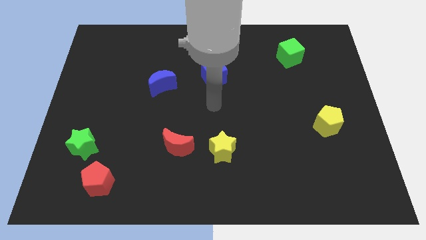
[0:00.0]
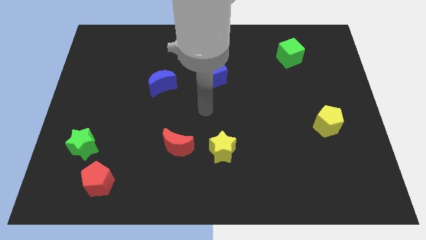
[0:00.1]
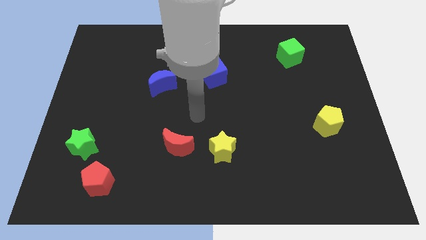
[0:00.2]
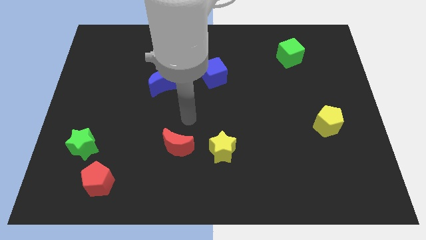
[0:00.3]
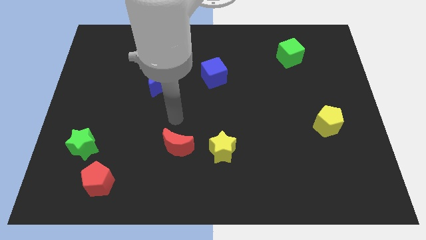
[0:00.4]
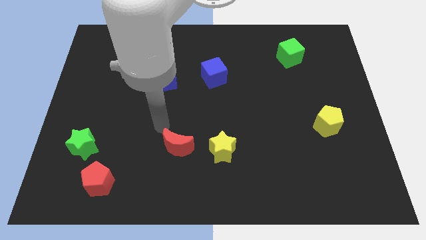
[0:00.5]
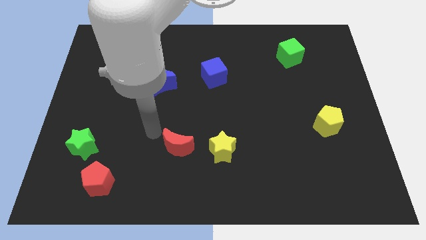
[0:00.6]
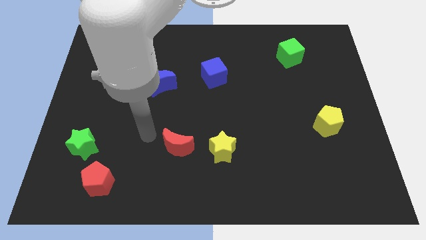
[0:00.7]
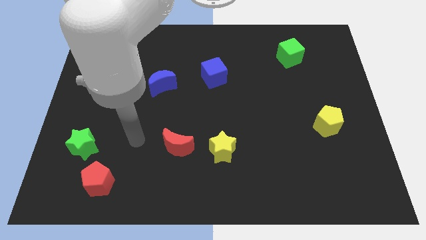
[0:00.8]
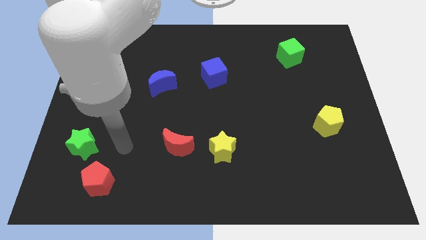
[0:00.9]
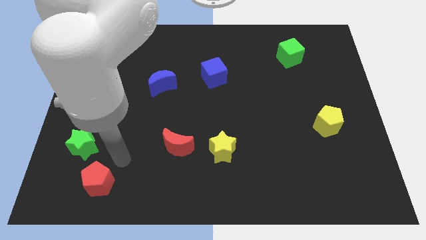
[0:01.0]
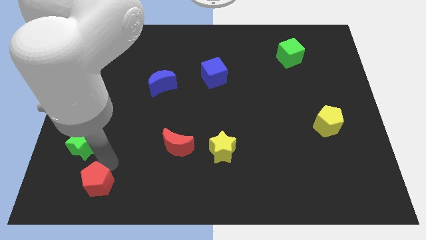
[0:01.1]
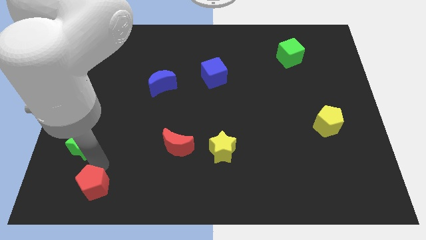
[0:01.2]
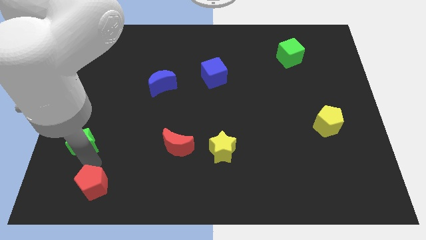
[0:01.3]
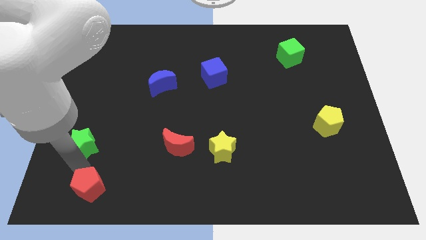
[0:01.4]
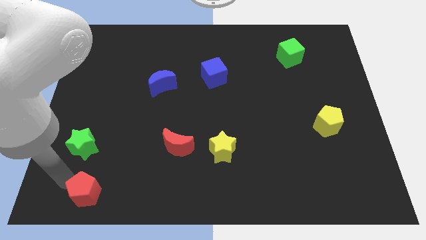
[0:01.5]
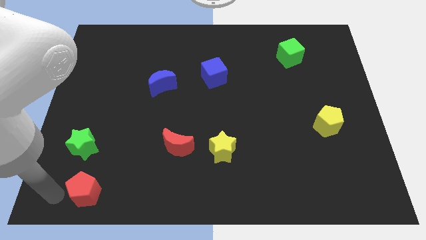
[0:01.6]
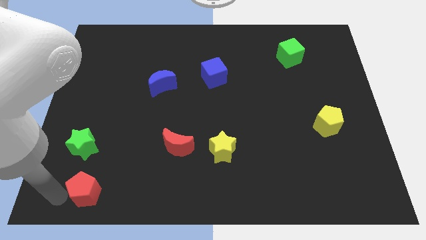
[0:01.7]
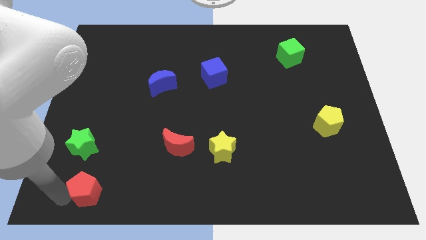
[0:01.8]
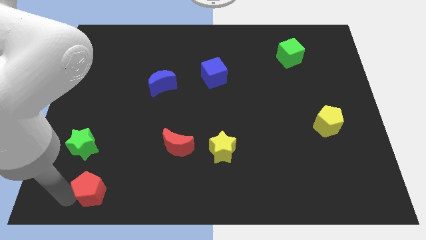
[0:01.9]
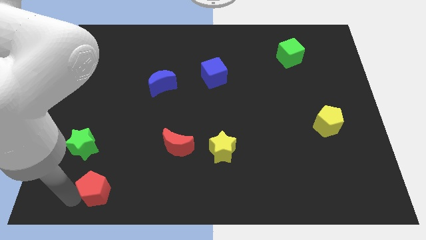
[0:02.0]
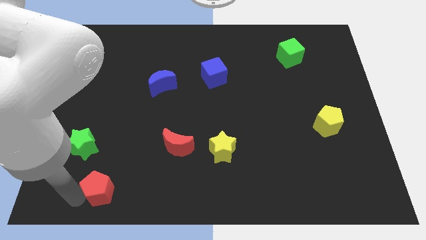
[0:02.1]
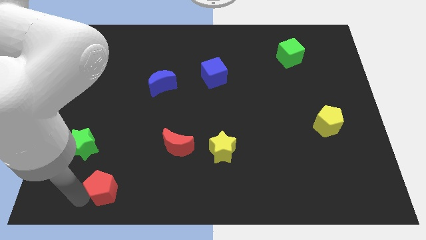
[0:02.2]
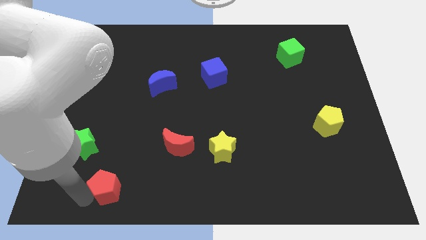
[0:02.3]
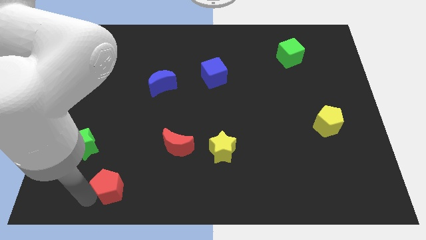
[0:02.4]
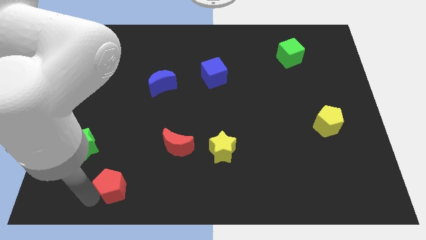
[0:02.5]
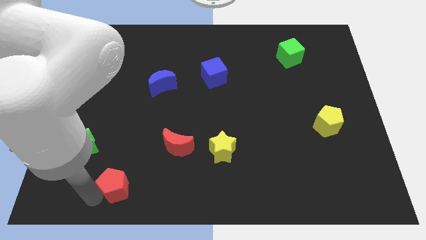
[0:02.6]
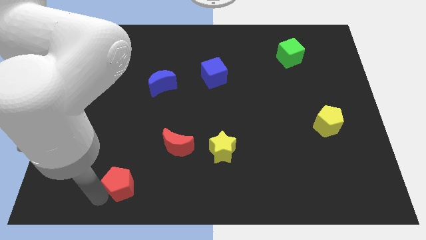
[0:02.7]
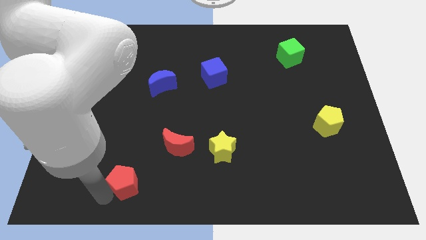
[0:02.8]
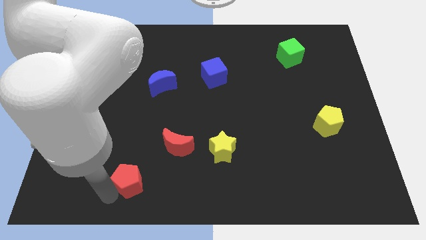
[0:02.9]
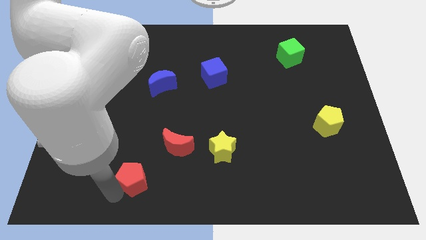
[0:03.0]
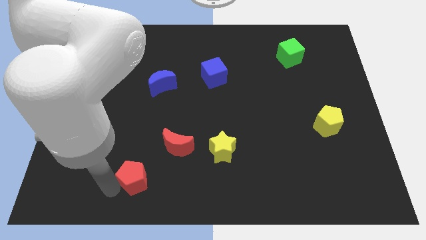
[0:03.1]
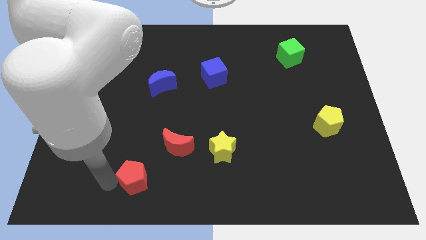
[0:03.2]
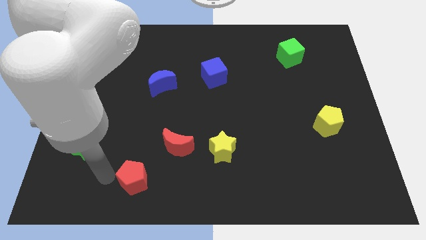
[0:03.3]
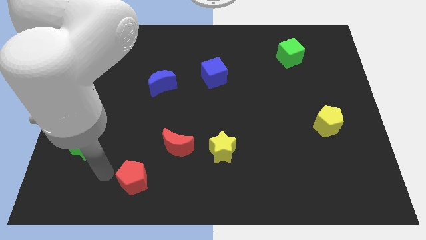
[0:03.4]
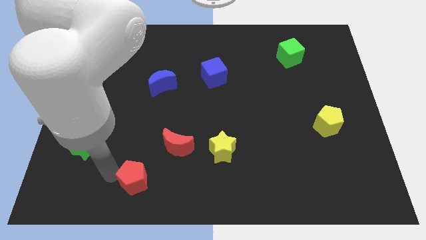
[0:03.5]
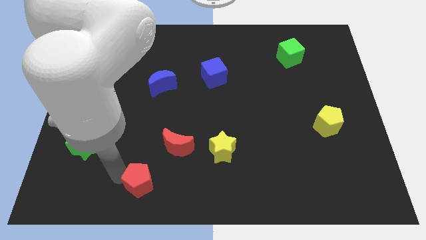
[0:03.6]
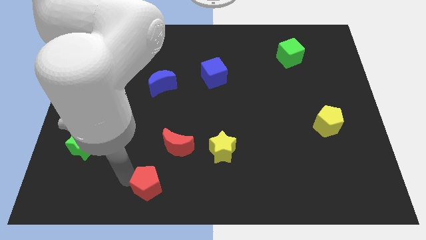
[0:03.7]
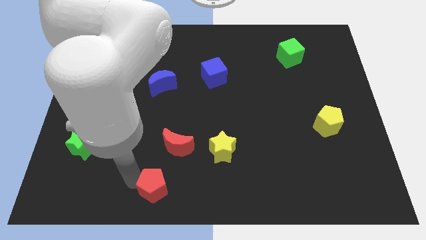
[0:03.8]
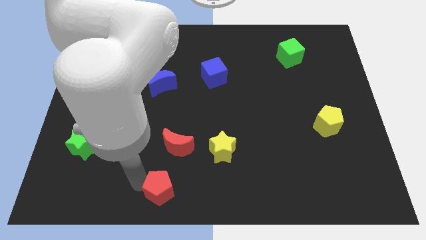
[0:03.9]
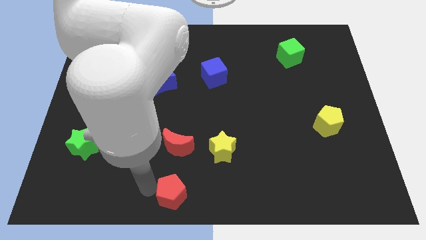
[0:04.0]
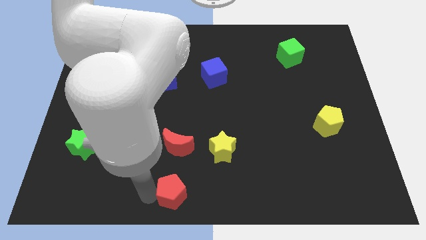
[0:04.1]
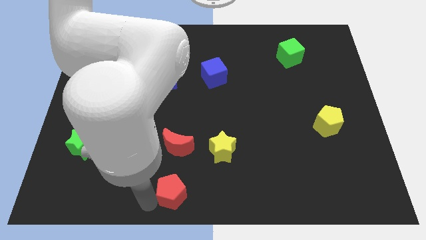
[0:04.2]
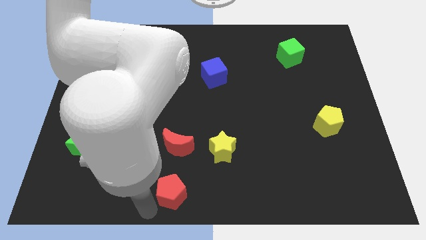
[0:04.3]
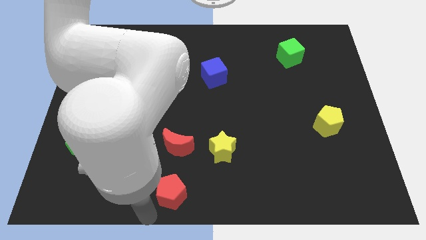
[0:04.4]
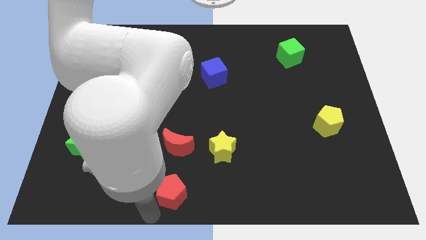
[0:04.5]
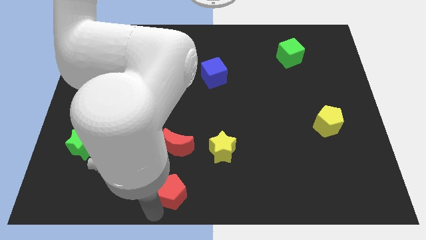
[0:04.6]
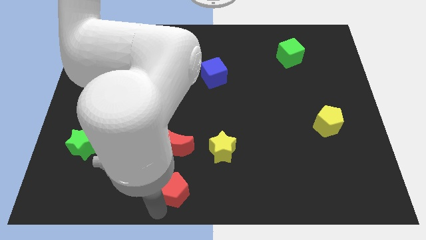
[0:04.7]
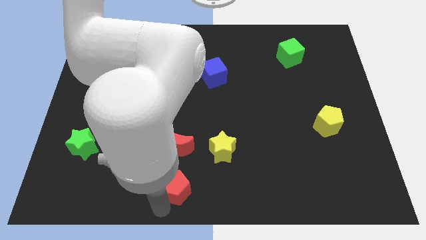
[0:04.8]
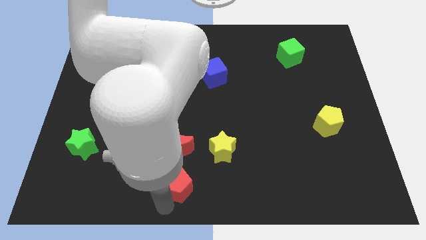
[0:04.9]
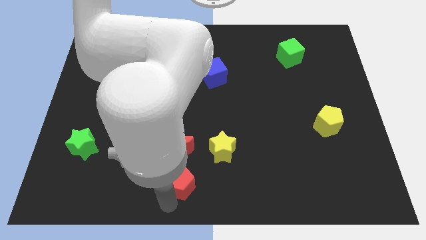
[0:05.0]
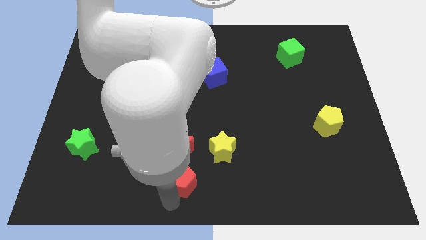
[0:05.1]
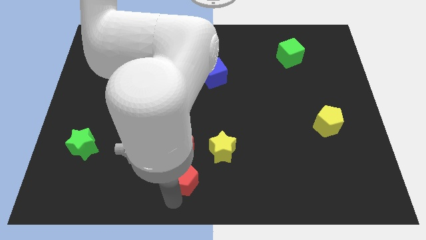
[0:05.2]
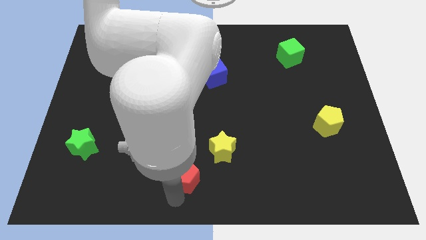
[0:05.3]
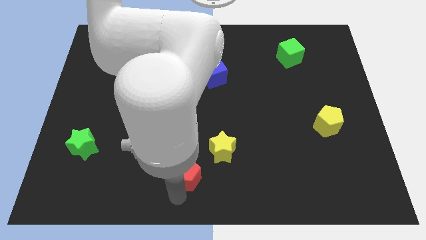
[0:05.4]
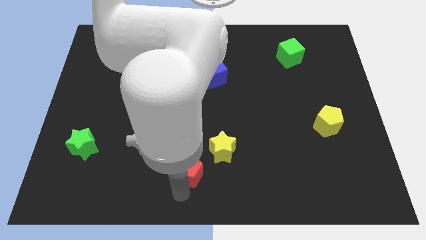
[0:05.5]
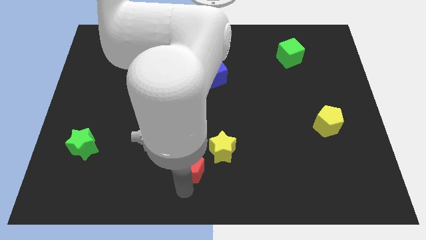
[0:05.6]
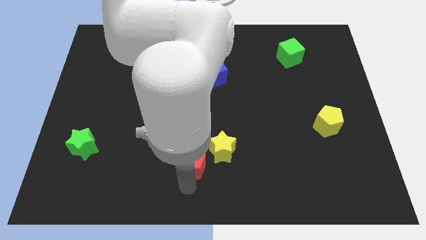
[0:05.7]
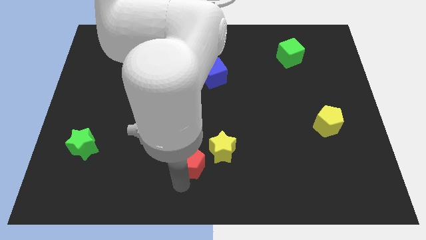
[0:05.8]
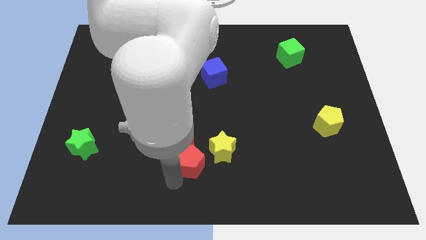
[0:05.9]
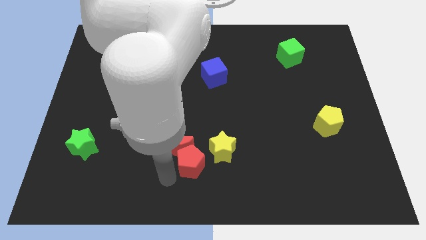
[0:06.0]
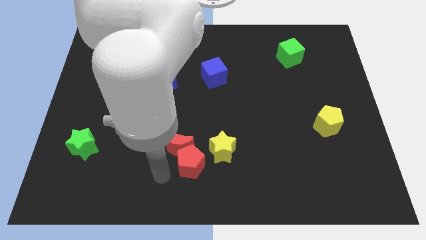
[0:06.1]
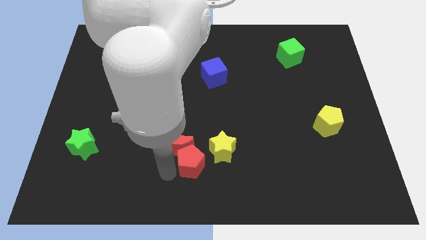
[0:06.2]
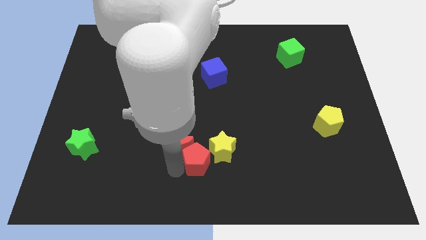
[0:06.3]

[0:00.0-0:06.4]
slide the red pentagon close to the yellow star

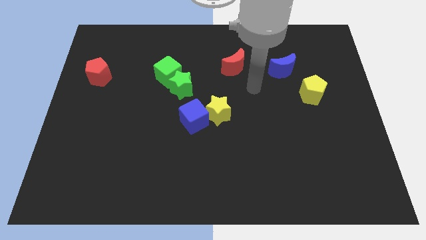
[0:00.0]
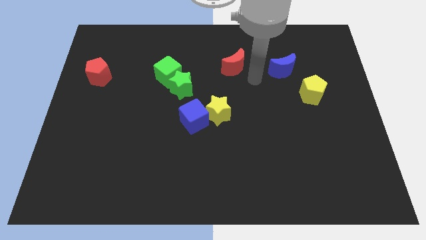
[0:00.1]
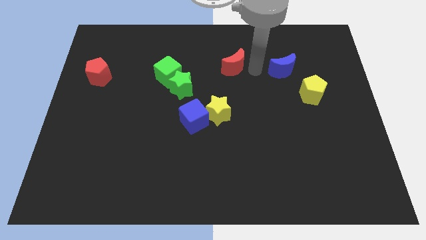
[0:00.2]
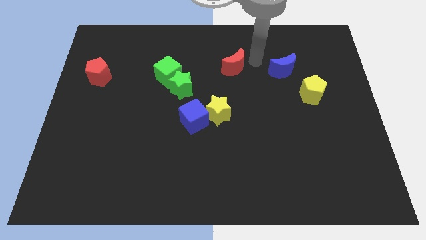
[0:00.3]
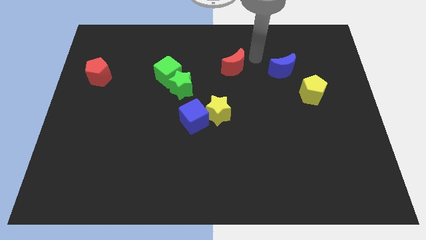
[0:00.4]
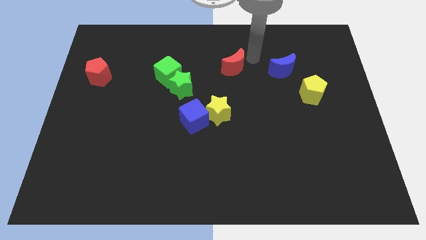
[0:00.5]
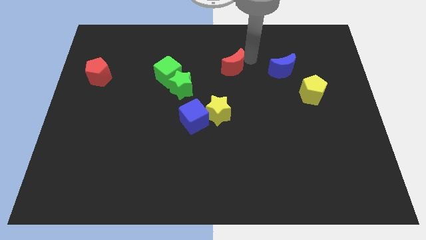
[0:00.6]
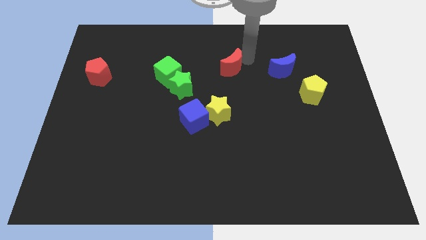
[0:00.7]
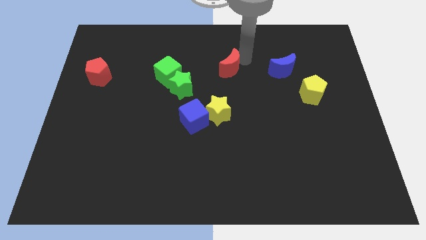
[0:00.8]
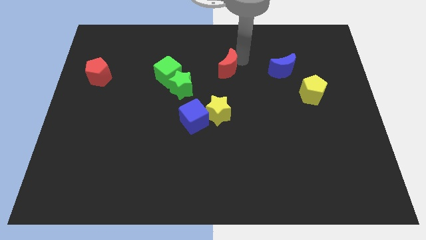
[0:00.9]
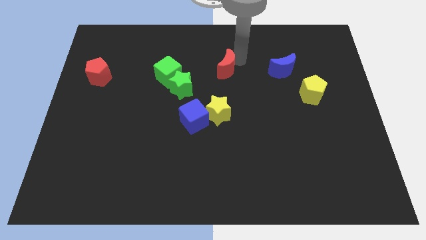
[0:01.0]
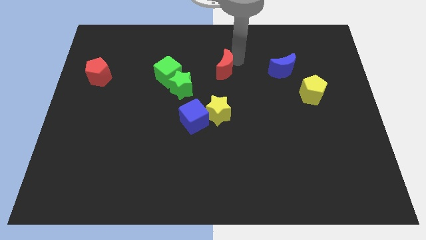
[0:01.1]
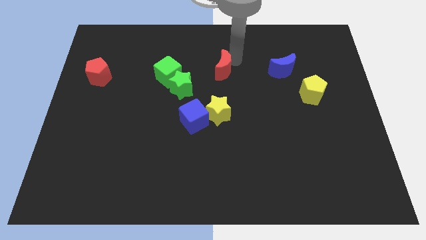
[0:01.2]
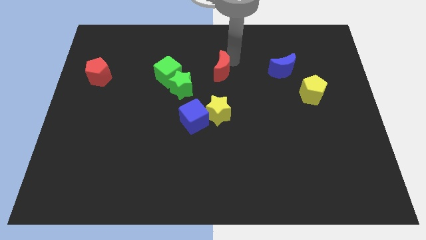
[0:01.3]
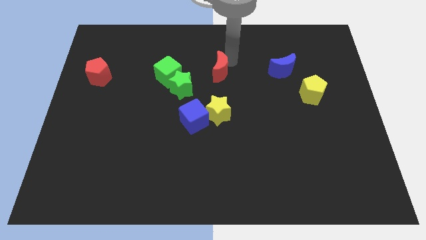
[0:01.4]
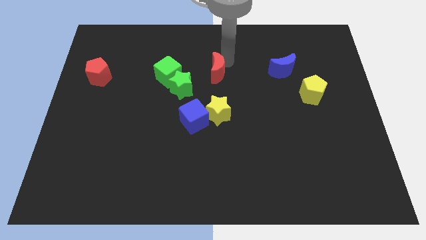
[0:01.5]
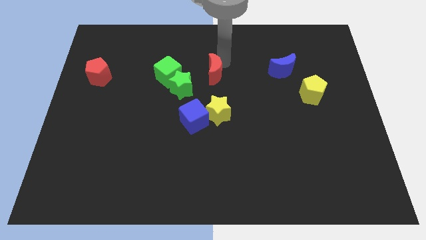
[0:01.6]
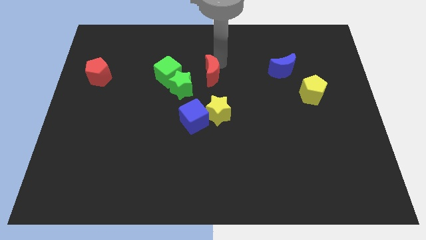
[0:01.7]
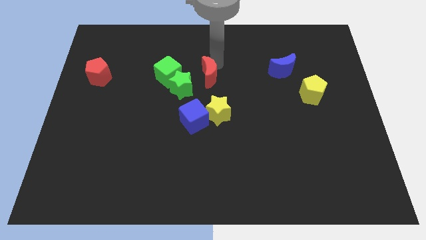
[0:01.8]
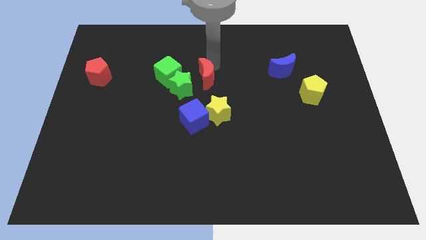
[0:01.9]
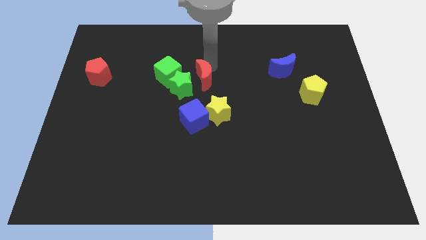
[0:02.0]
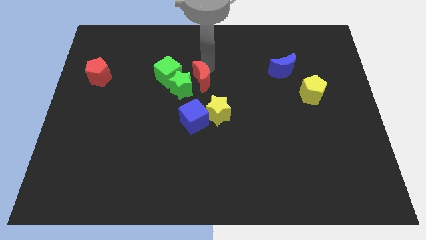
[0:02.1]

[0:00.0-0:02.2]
put the red moon next to the green star
